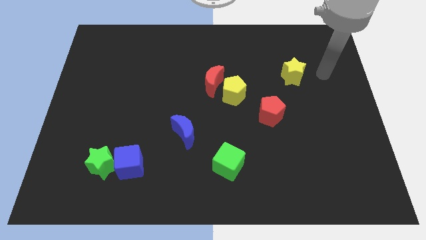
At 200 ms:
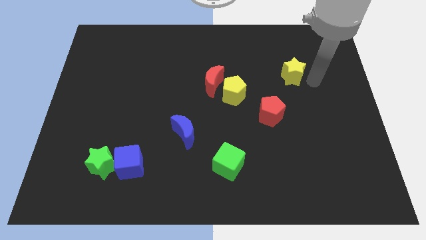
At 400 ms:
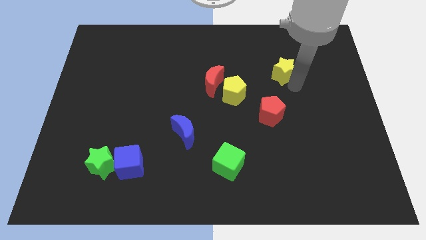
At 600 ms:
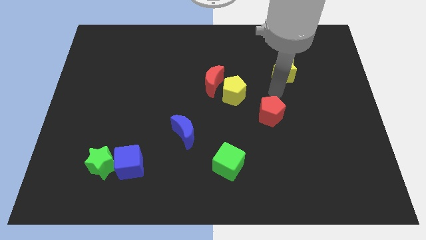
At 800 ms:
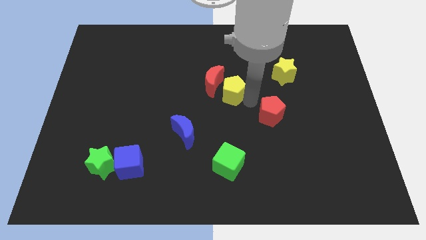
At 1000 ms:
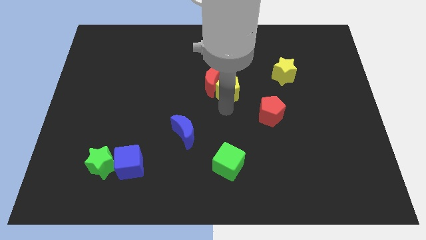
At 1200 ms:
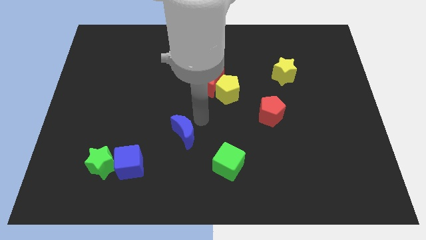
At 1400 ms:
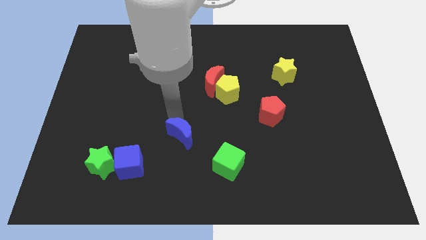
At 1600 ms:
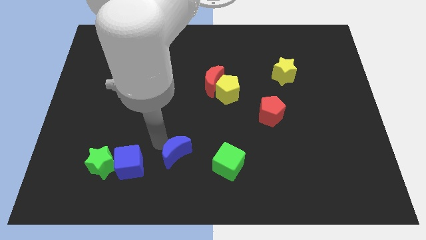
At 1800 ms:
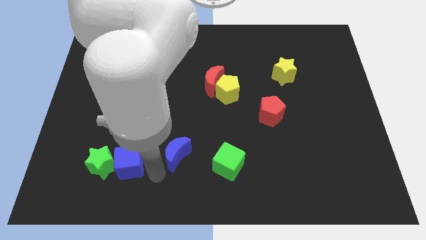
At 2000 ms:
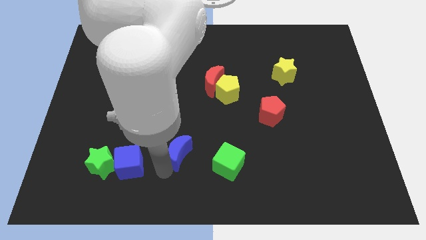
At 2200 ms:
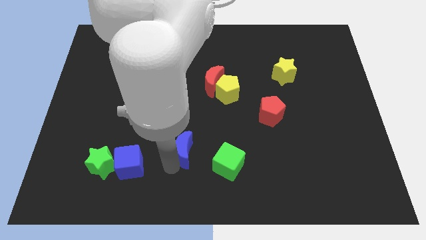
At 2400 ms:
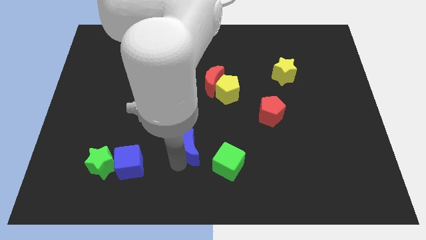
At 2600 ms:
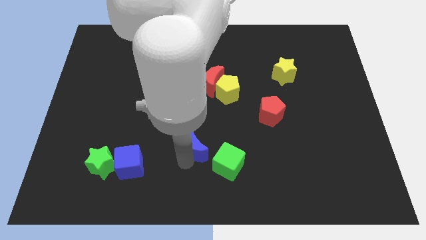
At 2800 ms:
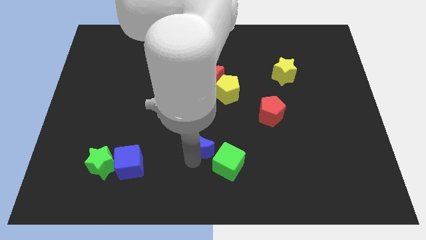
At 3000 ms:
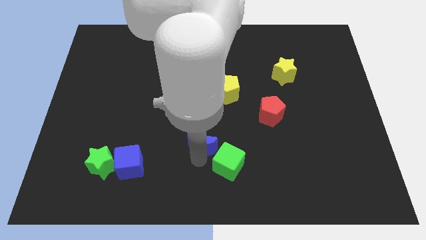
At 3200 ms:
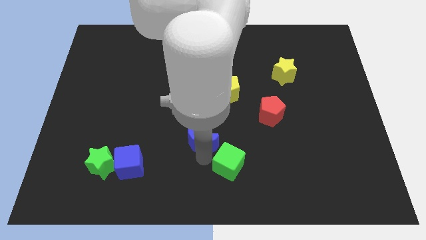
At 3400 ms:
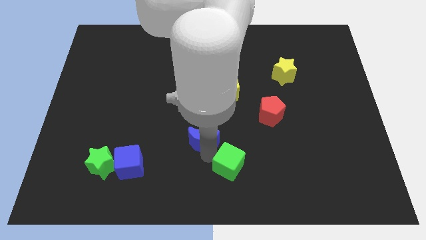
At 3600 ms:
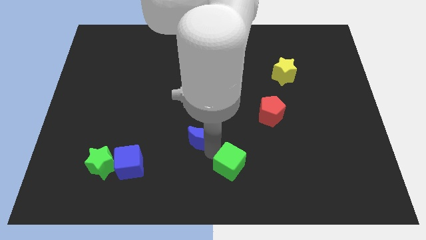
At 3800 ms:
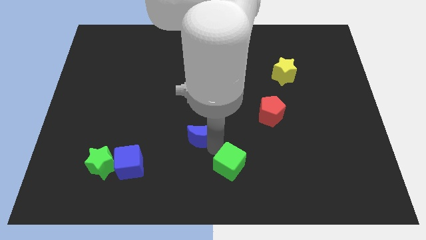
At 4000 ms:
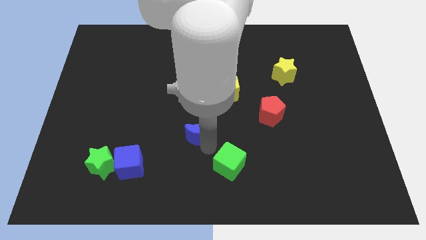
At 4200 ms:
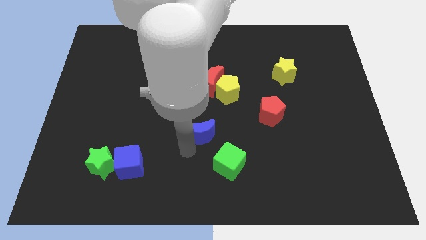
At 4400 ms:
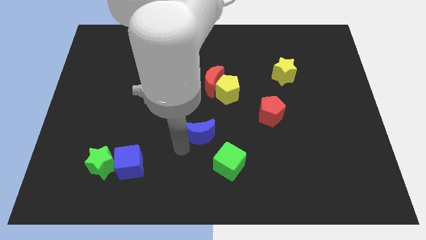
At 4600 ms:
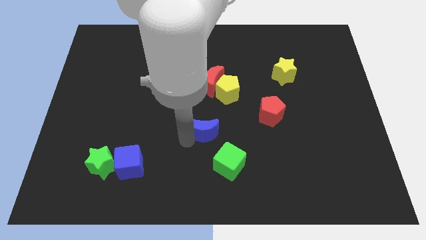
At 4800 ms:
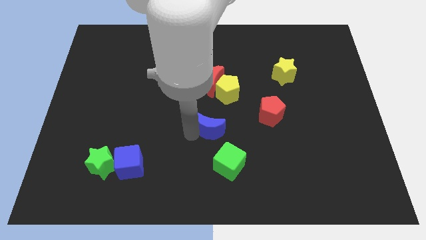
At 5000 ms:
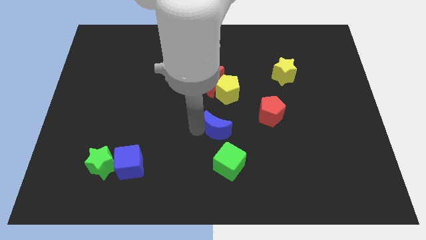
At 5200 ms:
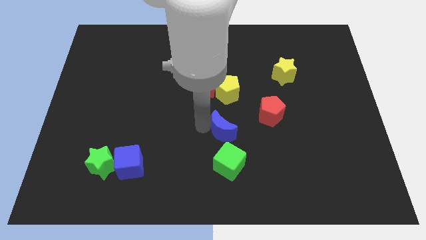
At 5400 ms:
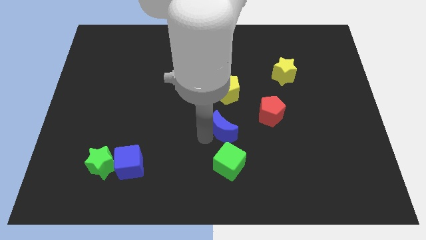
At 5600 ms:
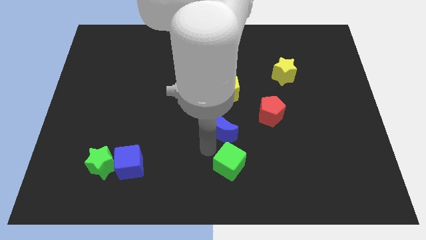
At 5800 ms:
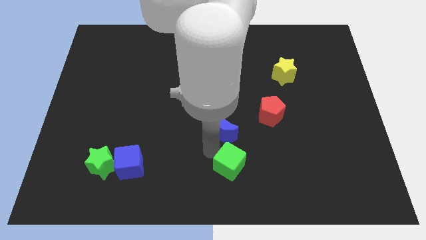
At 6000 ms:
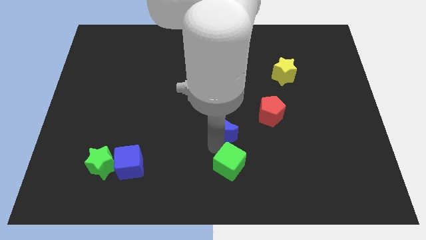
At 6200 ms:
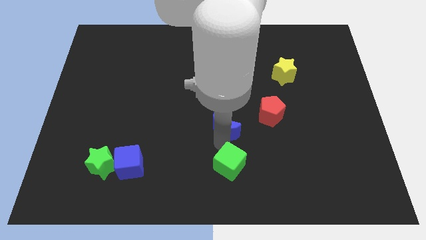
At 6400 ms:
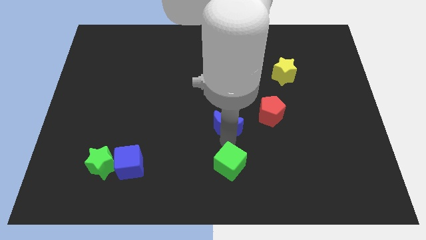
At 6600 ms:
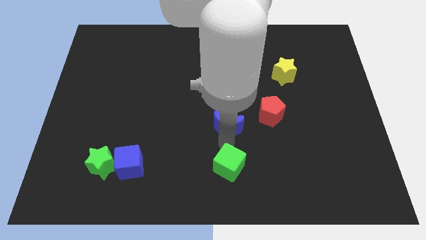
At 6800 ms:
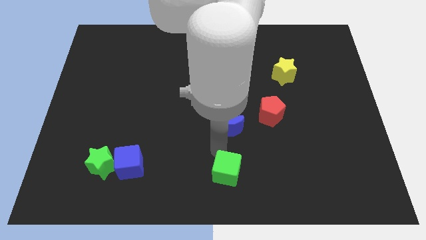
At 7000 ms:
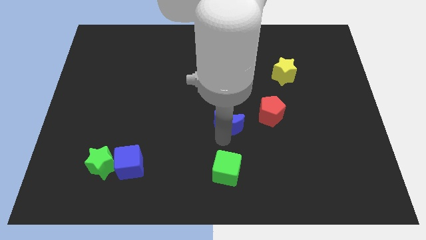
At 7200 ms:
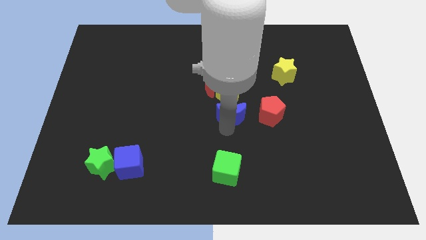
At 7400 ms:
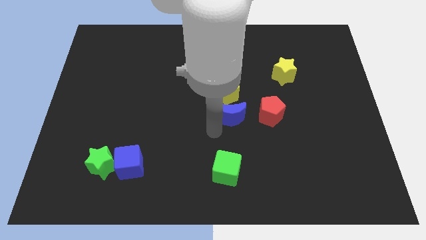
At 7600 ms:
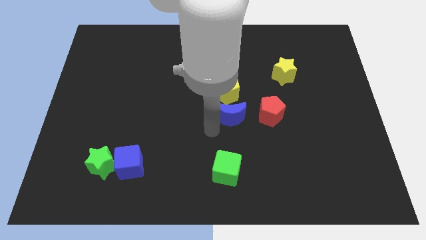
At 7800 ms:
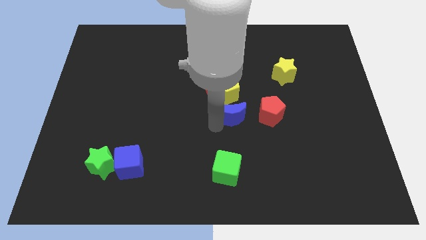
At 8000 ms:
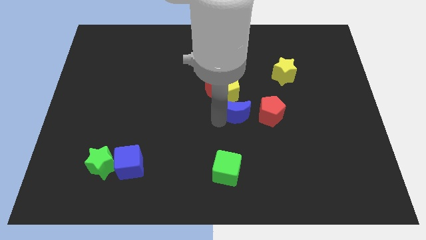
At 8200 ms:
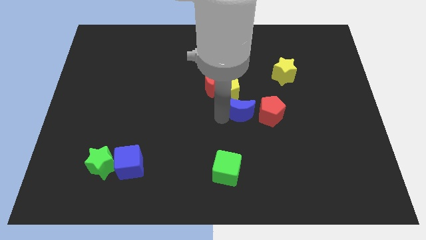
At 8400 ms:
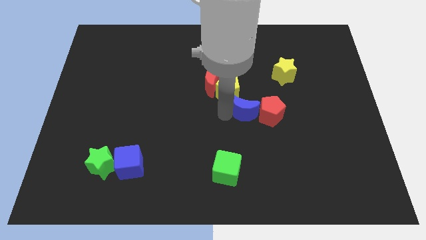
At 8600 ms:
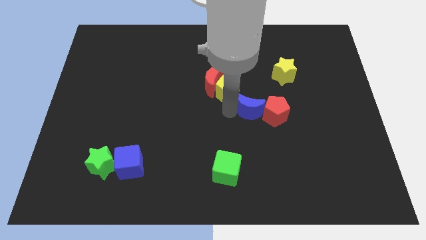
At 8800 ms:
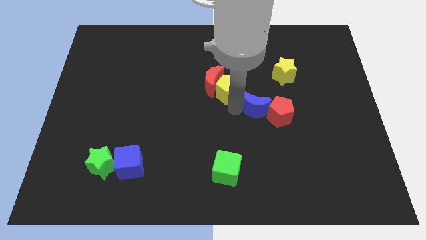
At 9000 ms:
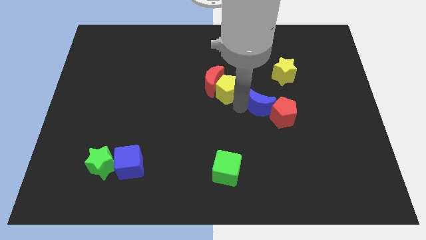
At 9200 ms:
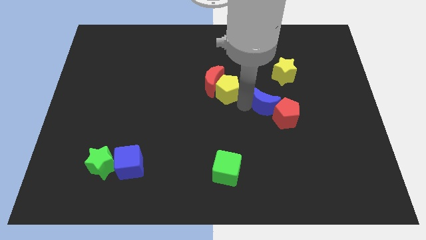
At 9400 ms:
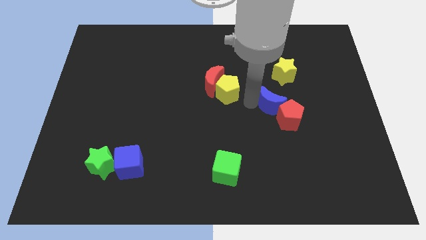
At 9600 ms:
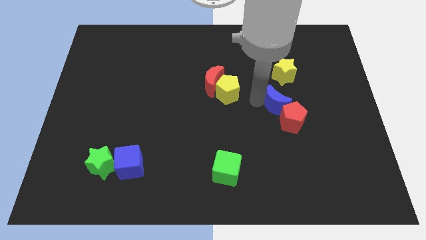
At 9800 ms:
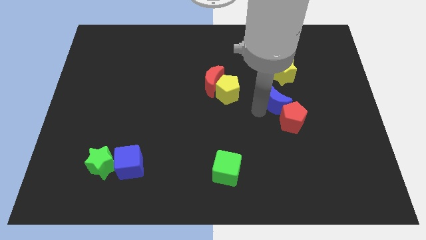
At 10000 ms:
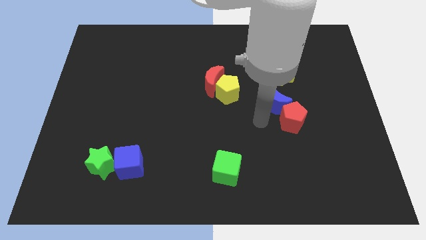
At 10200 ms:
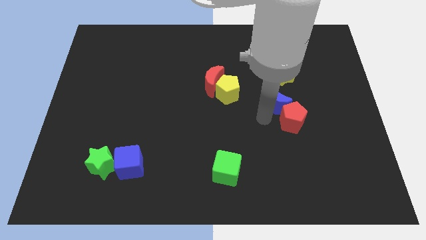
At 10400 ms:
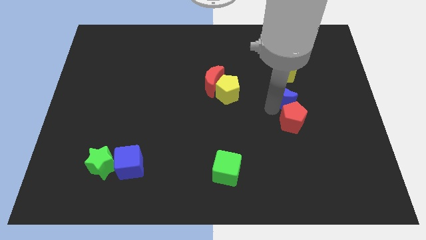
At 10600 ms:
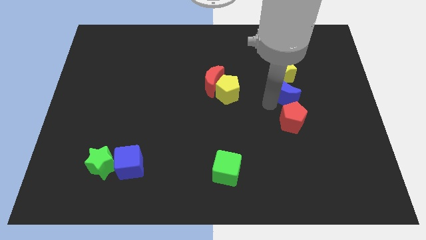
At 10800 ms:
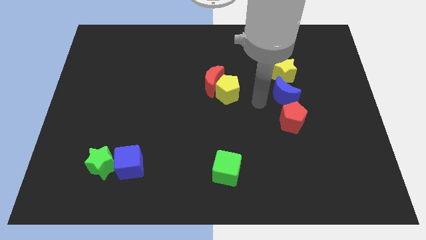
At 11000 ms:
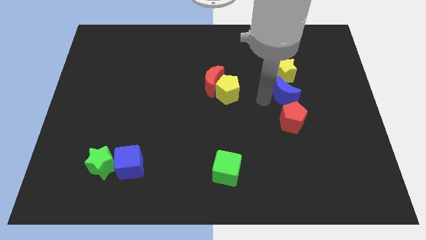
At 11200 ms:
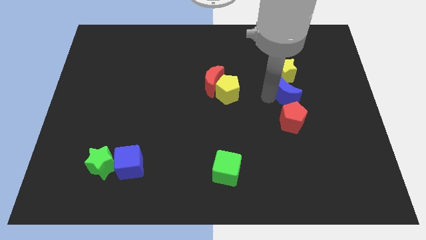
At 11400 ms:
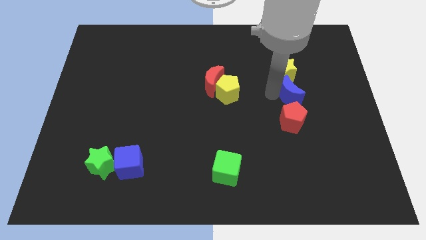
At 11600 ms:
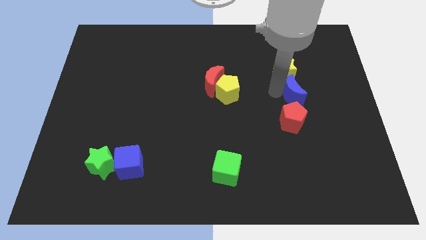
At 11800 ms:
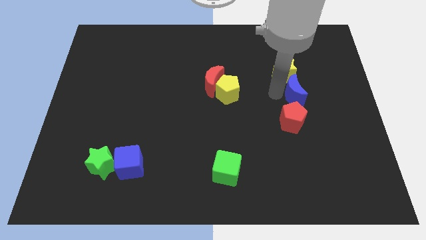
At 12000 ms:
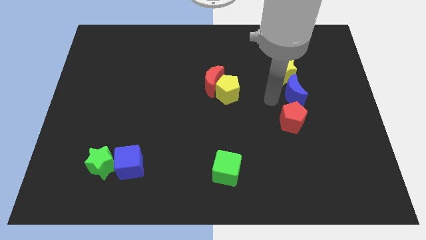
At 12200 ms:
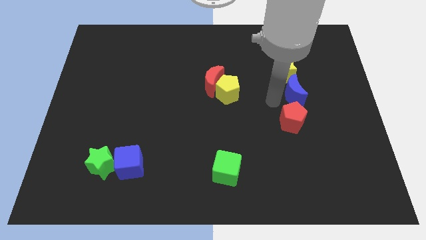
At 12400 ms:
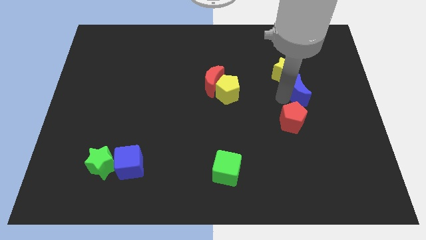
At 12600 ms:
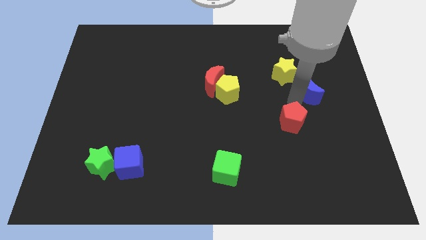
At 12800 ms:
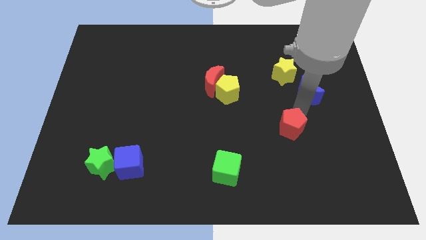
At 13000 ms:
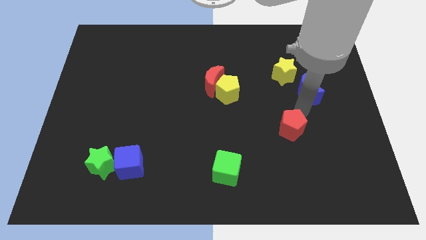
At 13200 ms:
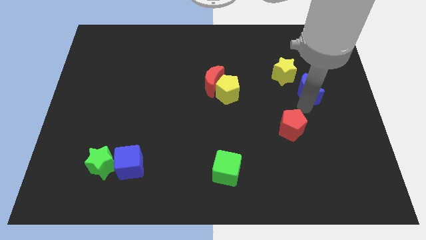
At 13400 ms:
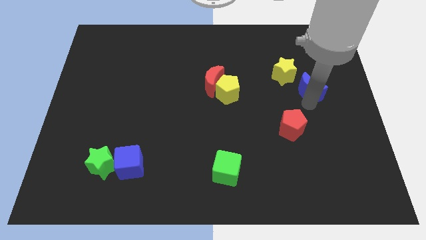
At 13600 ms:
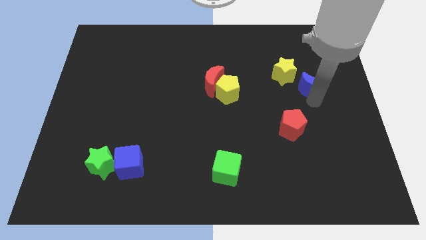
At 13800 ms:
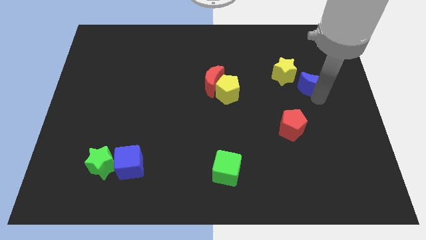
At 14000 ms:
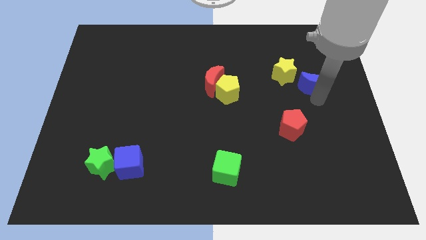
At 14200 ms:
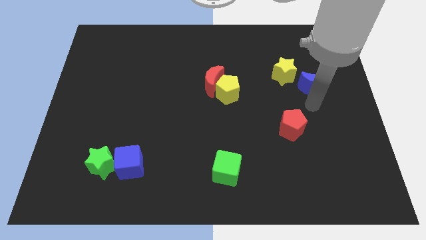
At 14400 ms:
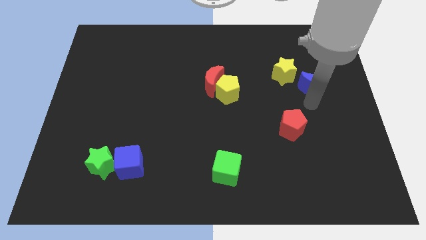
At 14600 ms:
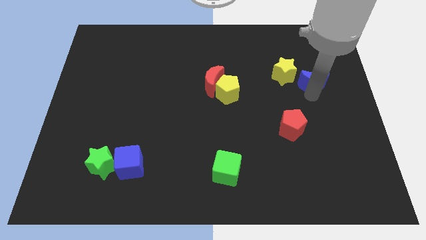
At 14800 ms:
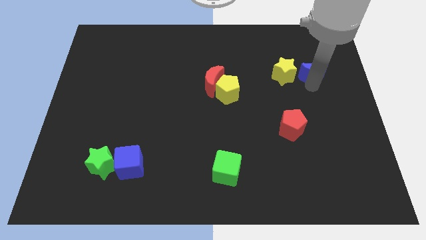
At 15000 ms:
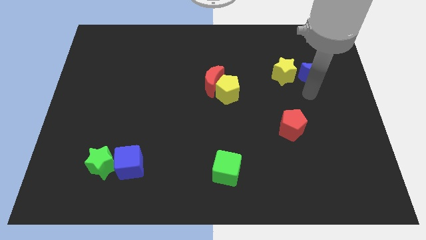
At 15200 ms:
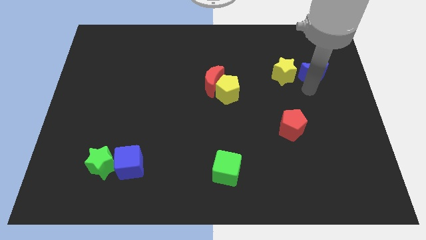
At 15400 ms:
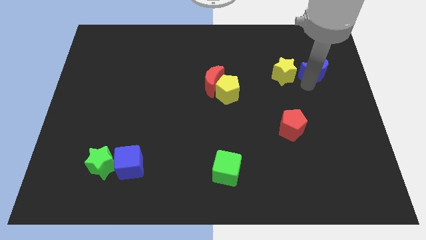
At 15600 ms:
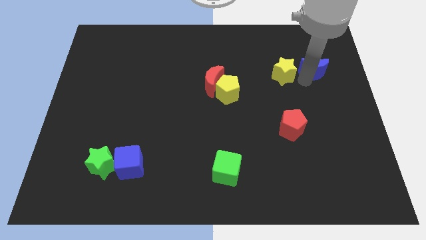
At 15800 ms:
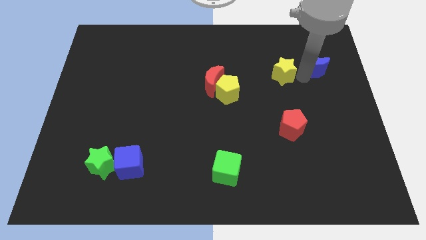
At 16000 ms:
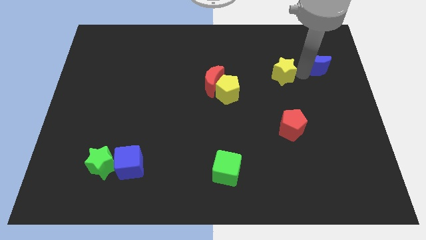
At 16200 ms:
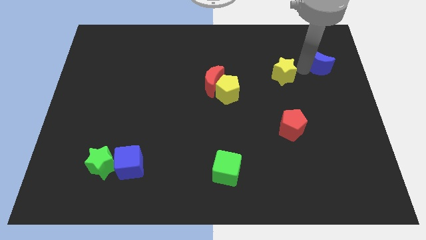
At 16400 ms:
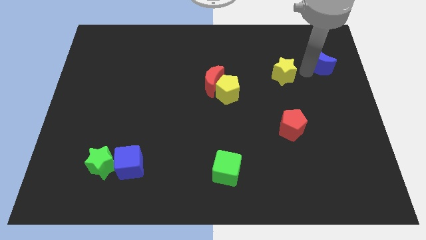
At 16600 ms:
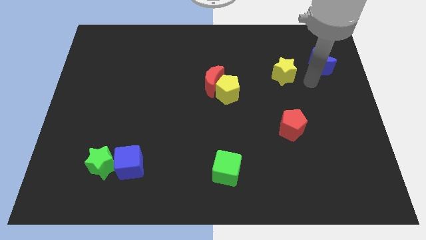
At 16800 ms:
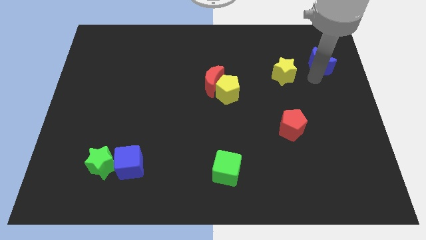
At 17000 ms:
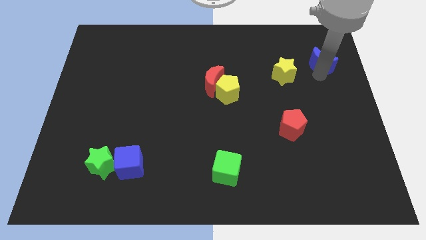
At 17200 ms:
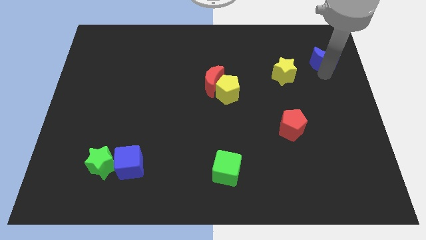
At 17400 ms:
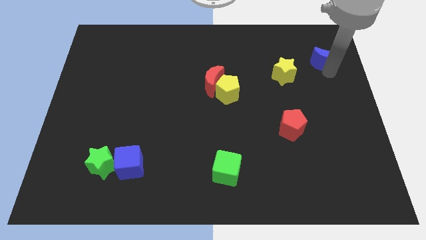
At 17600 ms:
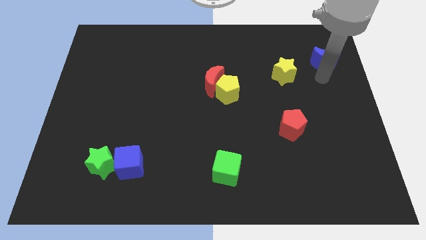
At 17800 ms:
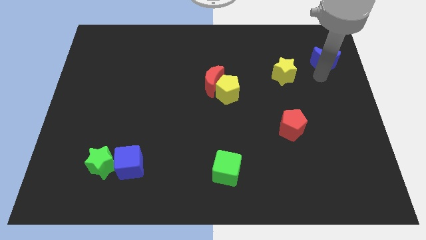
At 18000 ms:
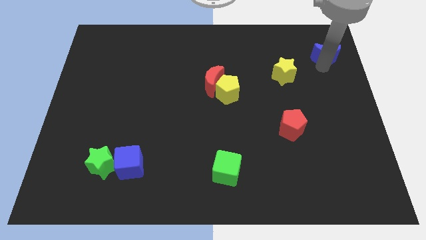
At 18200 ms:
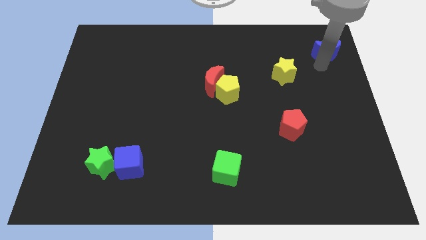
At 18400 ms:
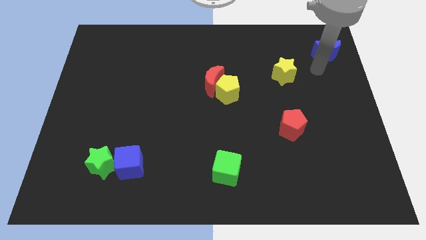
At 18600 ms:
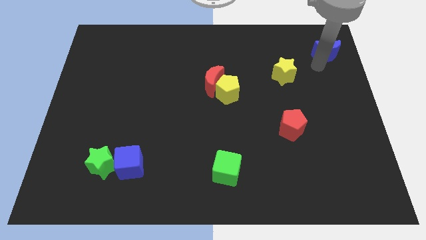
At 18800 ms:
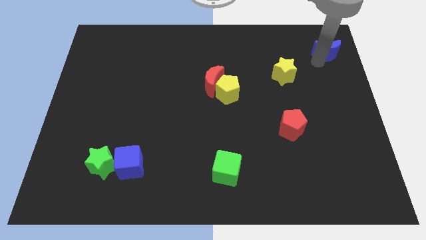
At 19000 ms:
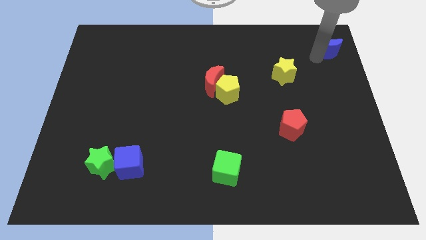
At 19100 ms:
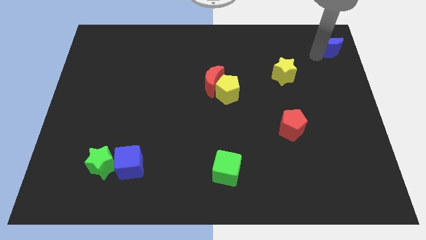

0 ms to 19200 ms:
slide the blue moon to the upper right corner
